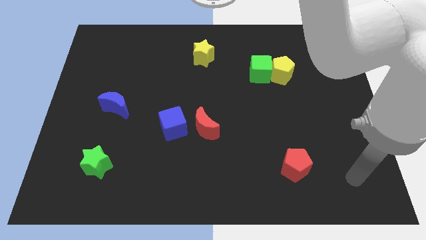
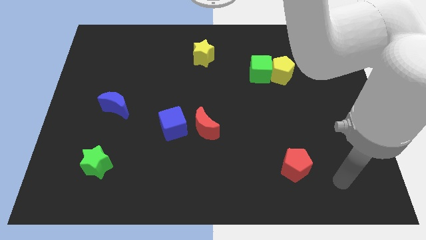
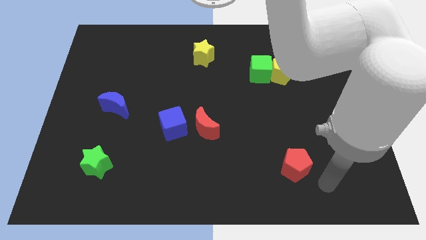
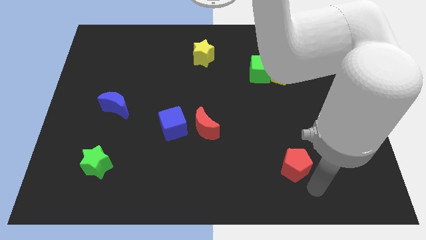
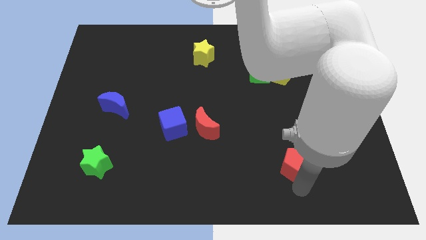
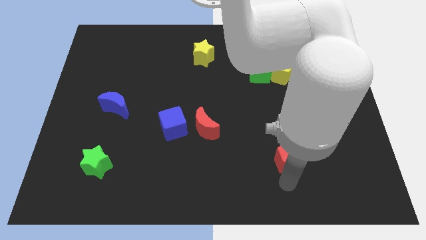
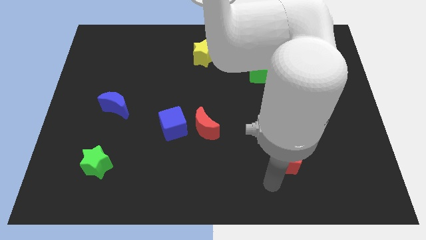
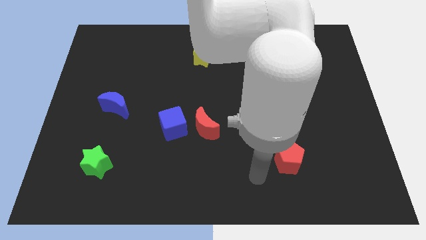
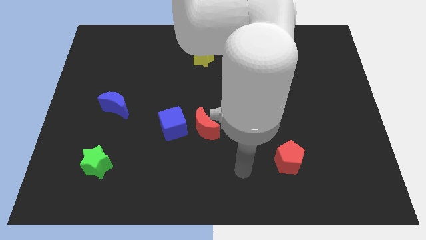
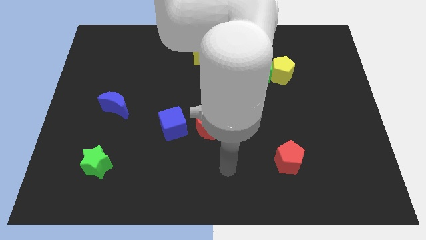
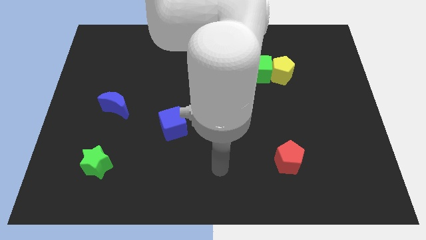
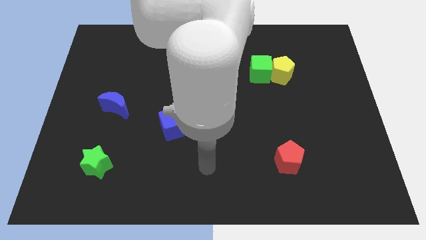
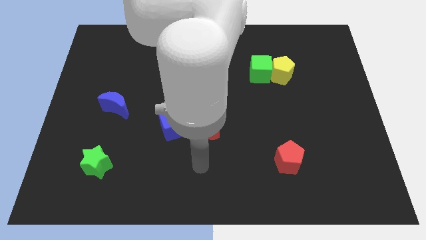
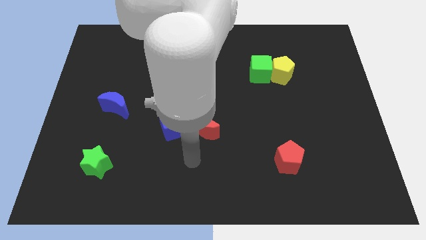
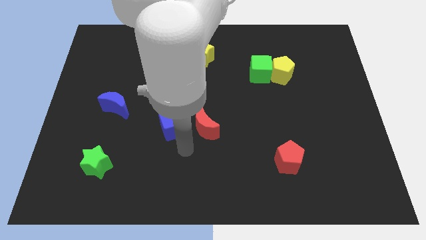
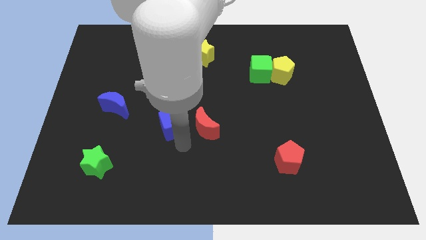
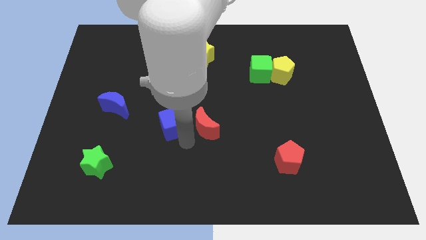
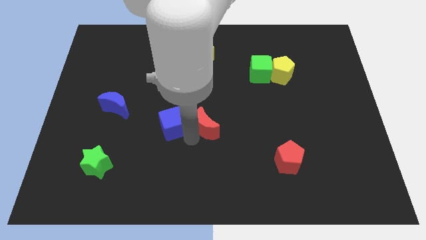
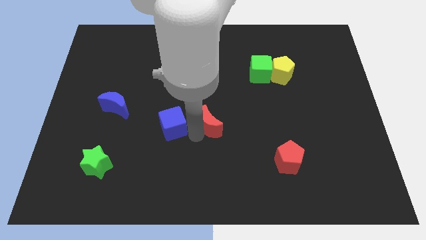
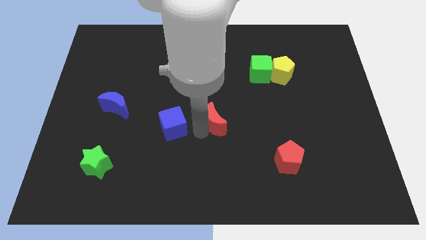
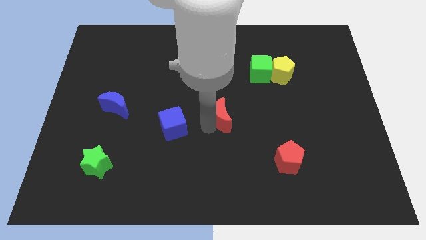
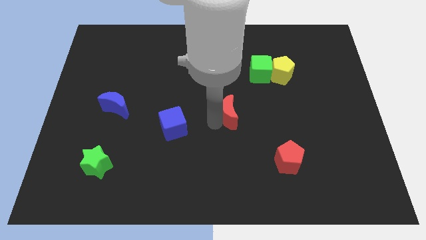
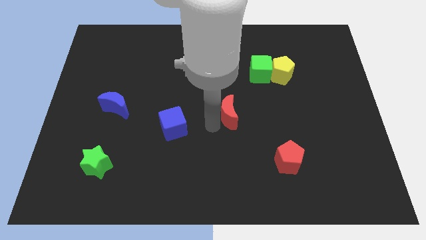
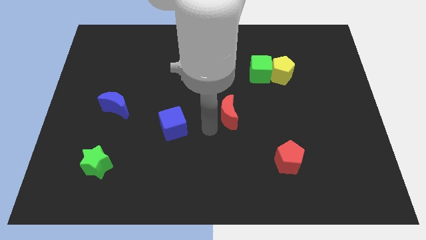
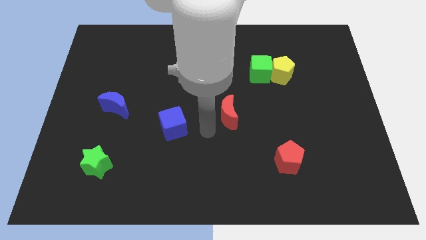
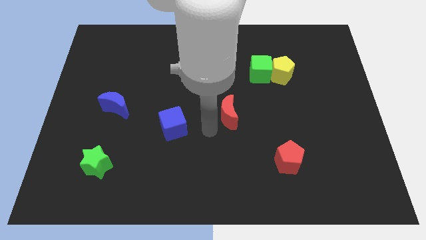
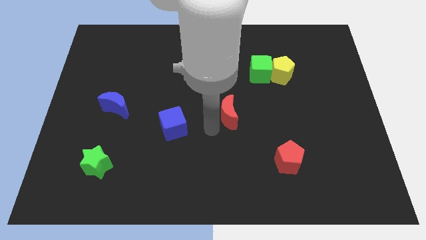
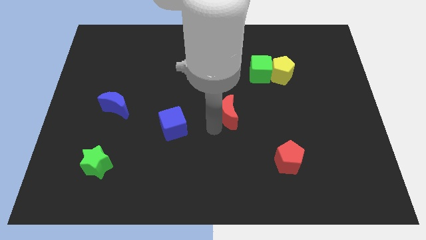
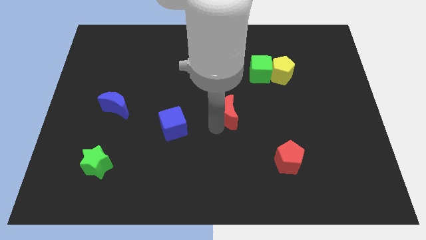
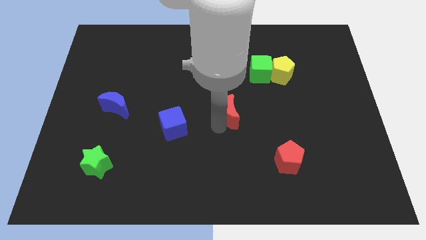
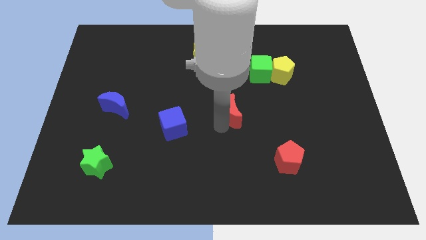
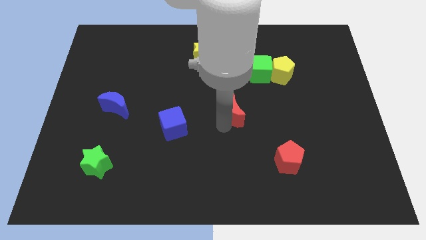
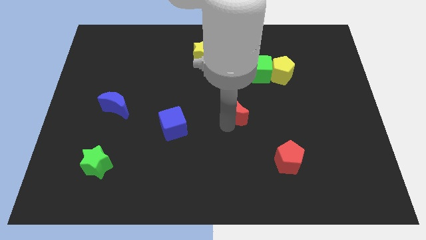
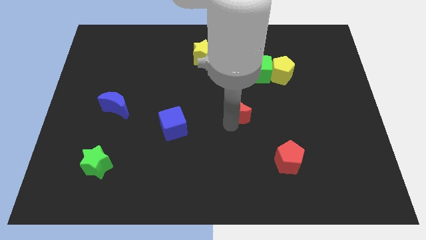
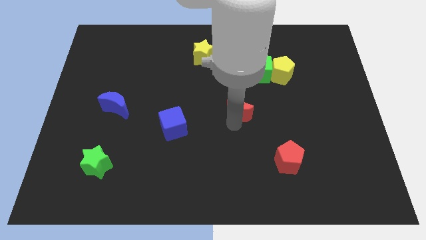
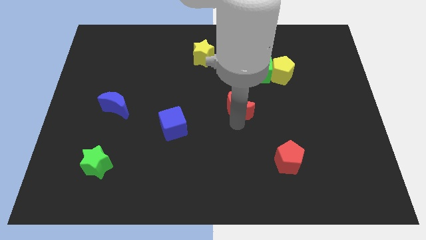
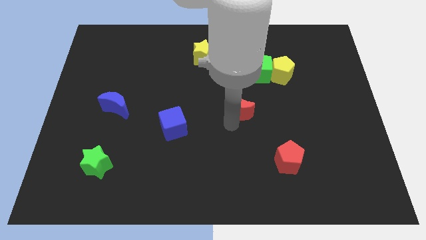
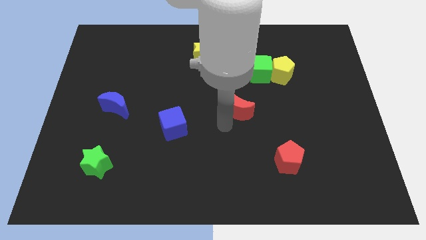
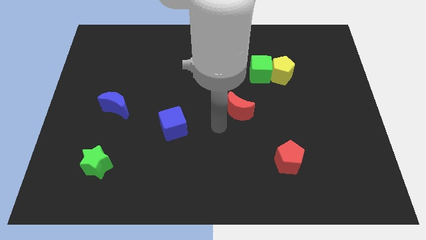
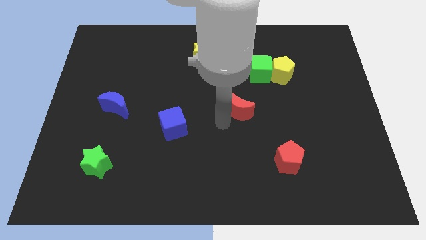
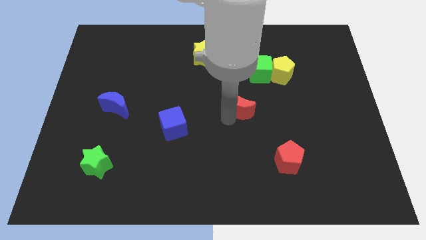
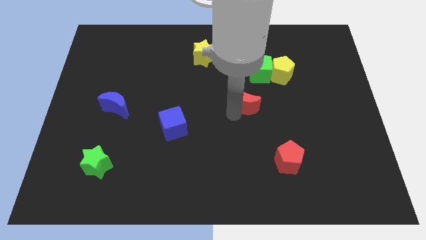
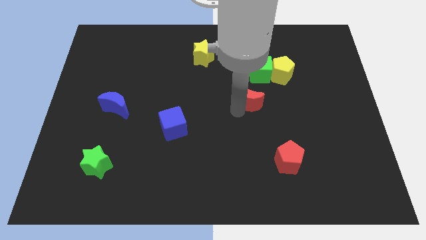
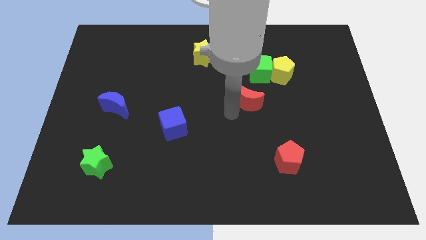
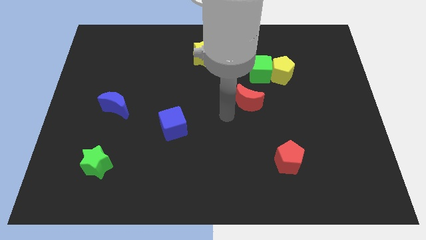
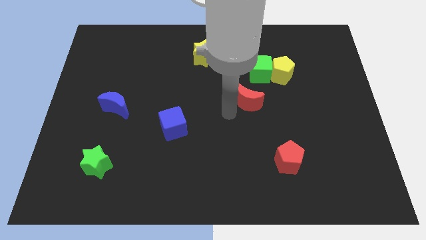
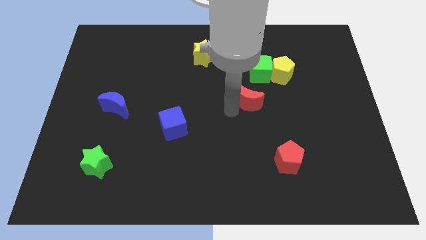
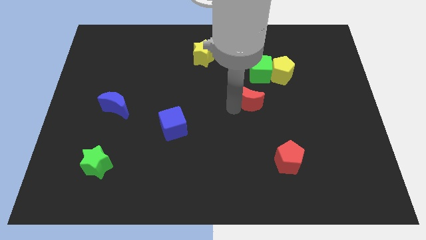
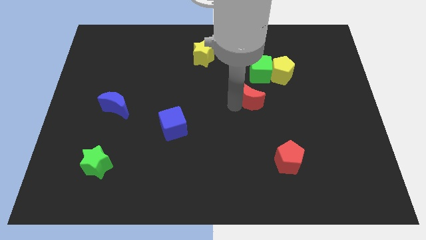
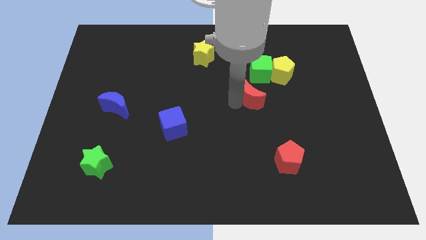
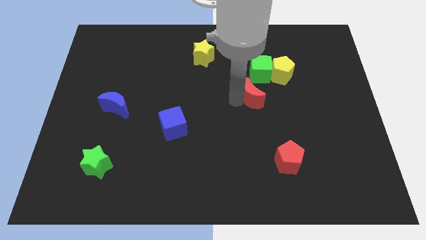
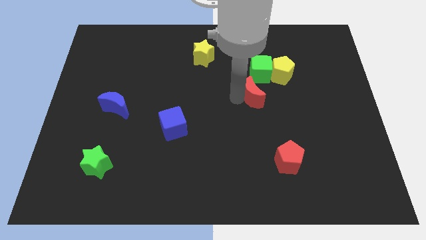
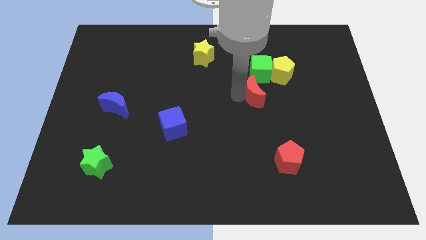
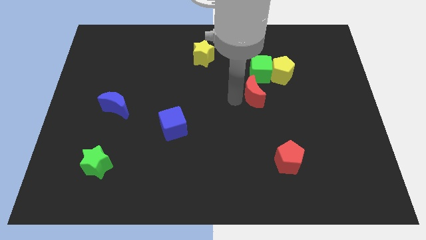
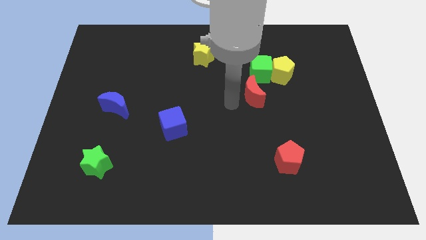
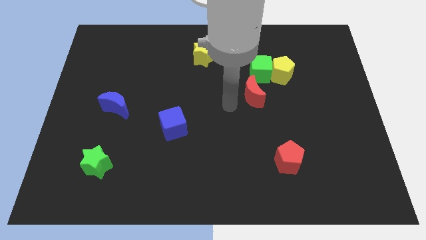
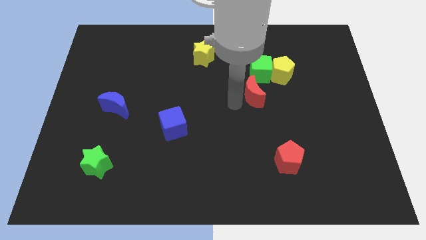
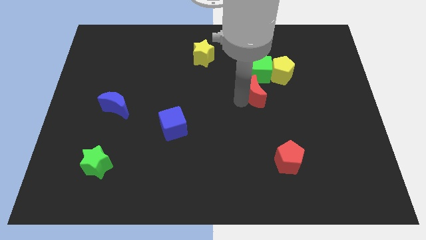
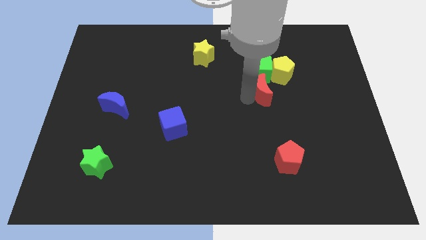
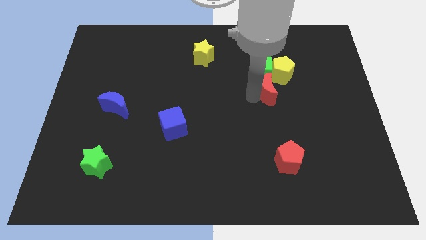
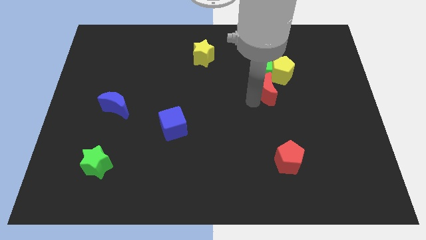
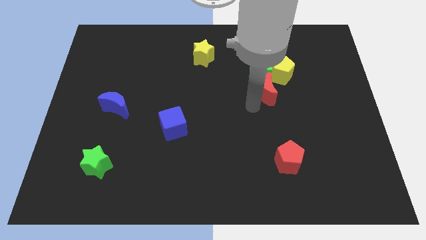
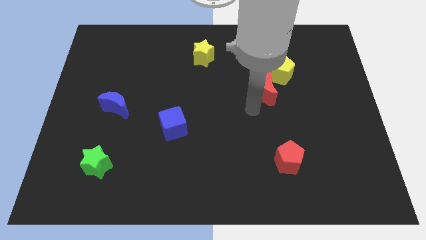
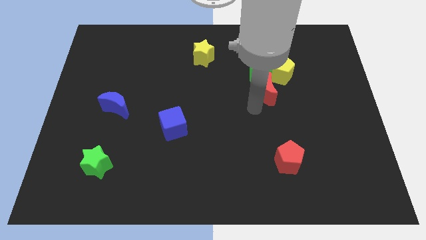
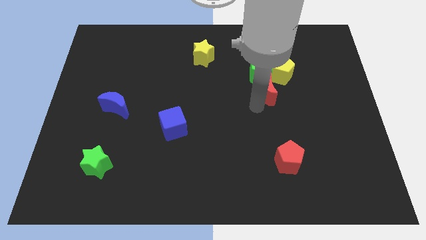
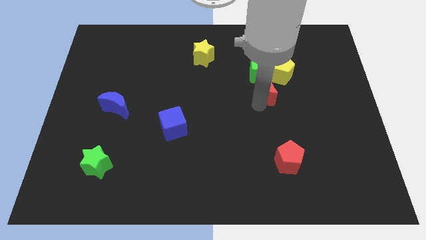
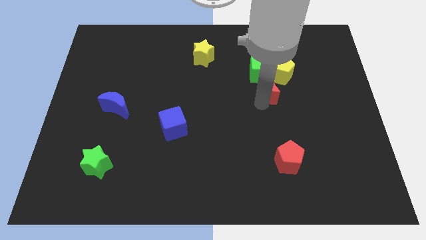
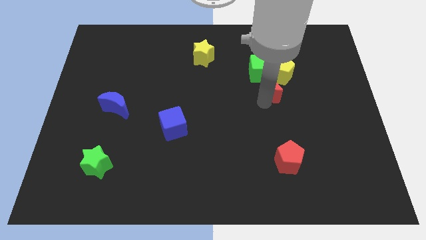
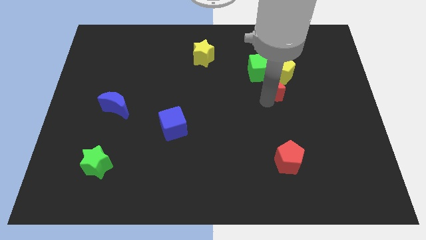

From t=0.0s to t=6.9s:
put the red moon close to the yellow pentagon
